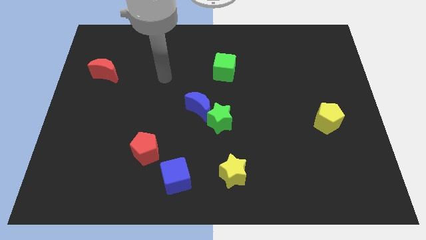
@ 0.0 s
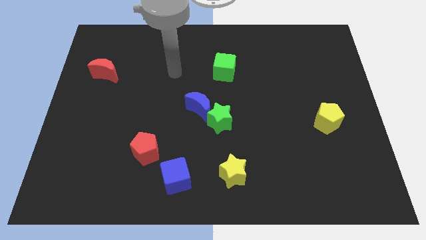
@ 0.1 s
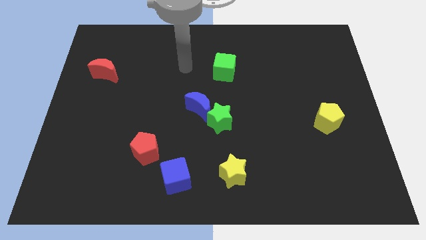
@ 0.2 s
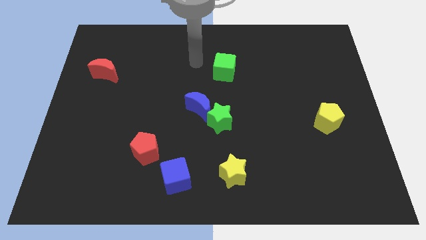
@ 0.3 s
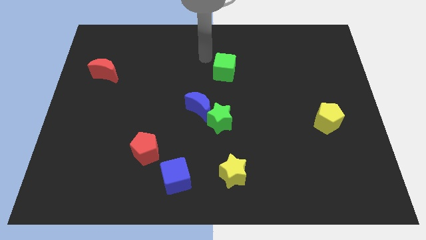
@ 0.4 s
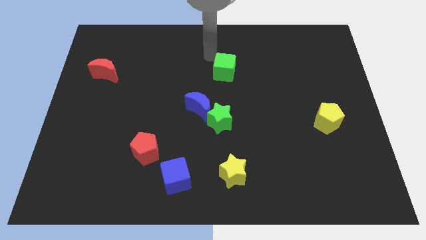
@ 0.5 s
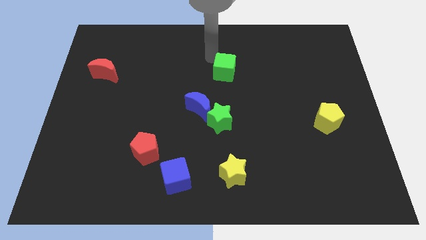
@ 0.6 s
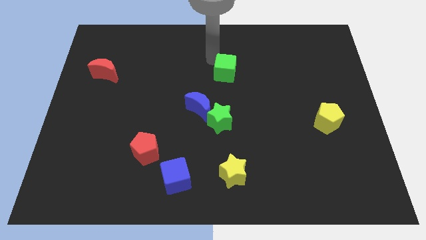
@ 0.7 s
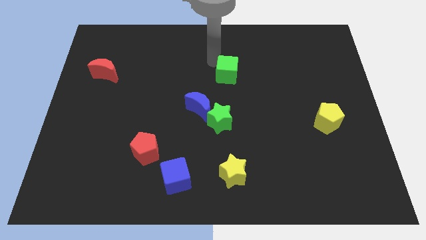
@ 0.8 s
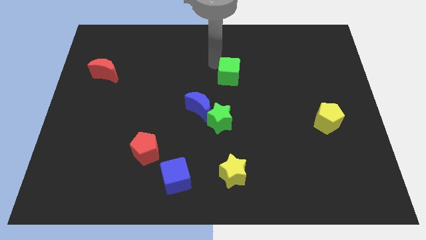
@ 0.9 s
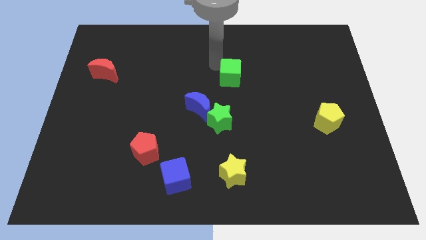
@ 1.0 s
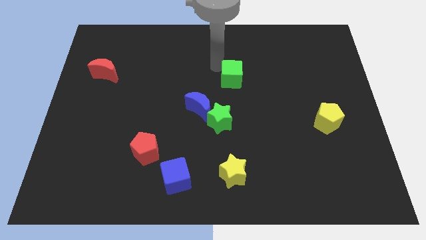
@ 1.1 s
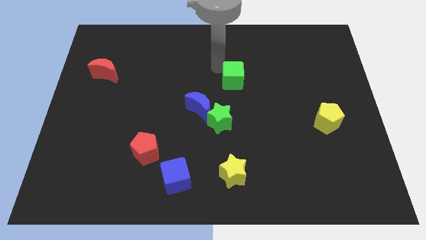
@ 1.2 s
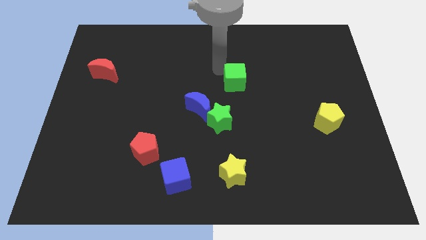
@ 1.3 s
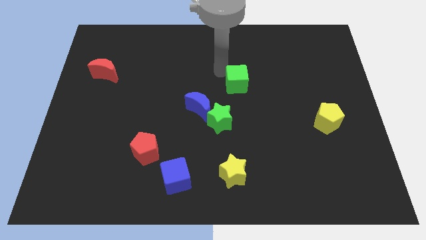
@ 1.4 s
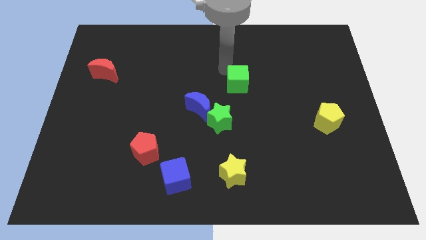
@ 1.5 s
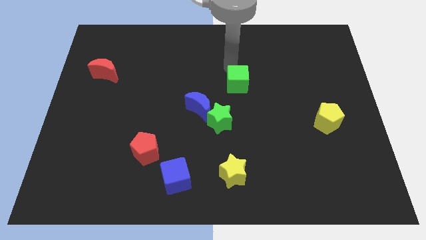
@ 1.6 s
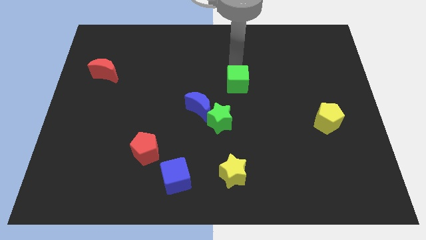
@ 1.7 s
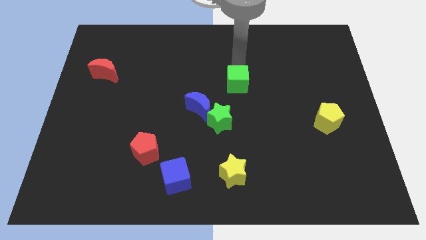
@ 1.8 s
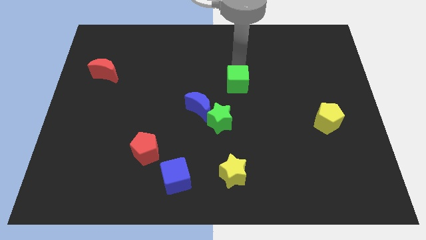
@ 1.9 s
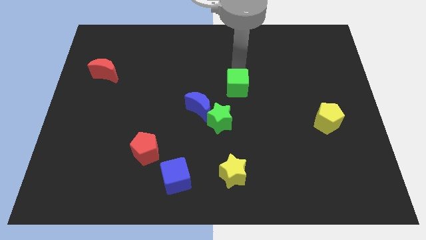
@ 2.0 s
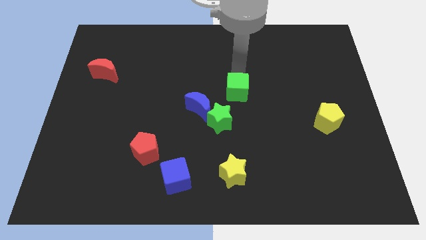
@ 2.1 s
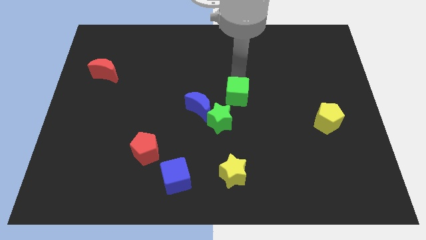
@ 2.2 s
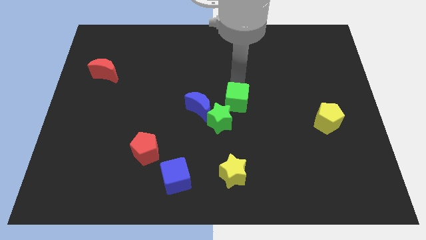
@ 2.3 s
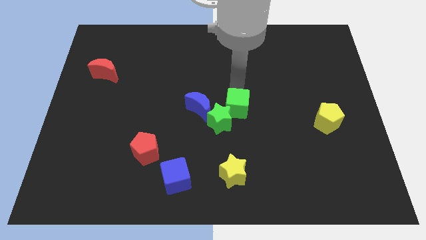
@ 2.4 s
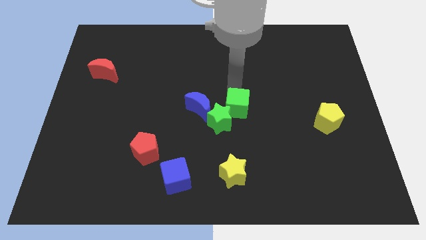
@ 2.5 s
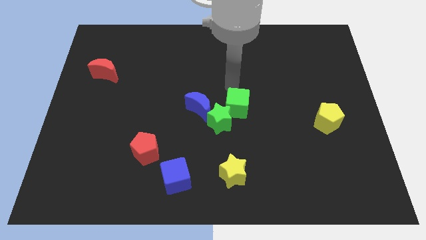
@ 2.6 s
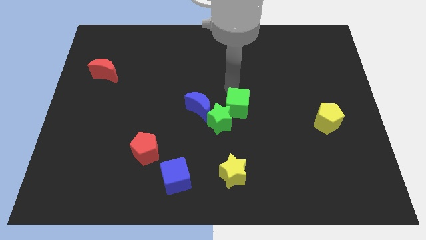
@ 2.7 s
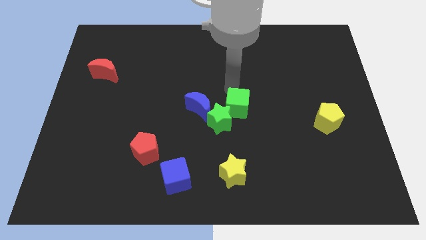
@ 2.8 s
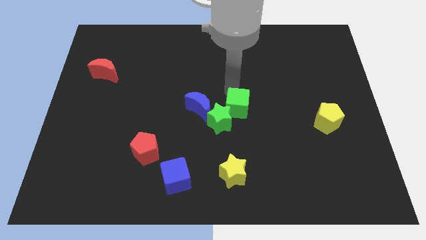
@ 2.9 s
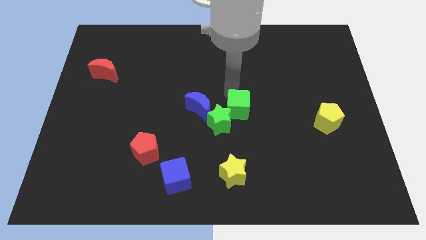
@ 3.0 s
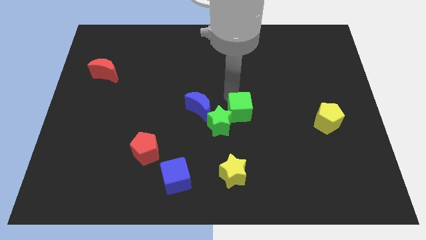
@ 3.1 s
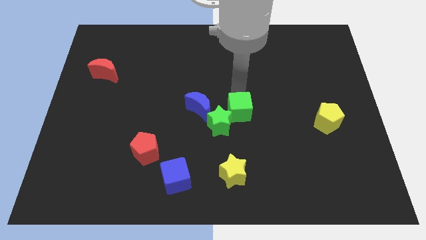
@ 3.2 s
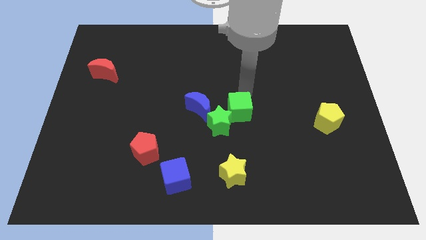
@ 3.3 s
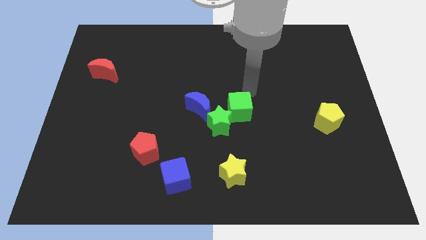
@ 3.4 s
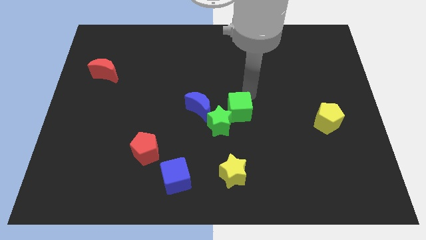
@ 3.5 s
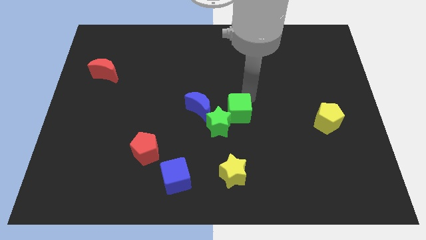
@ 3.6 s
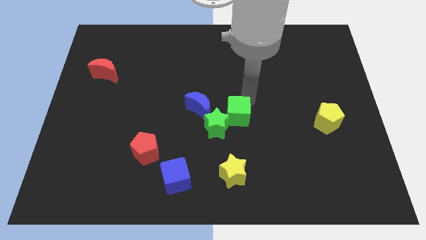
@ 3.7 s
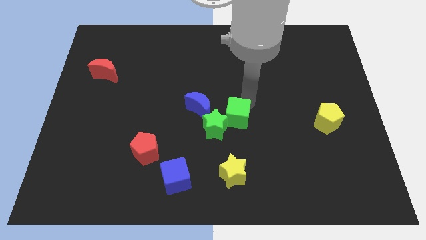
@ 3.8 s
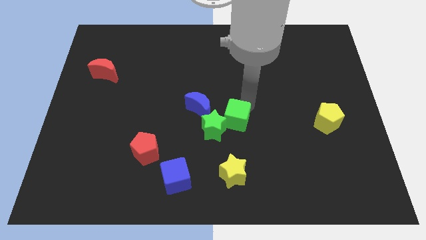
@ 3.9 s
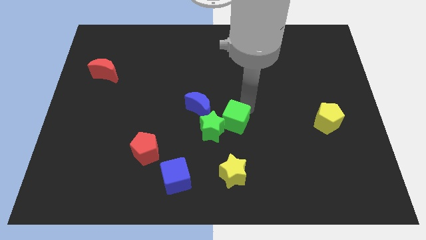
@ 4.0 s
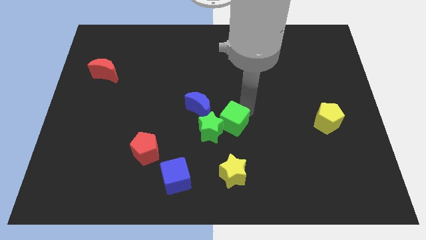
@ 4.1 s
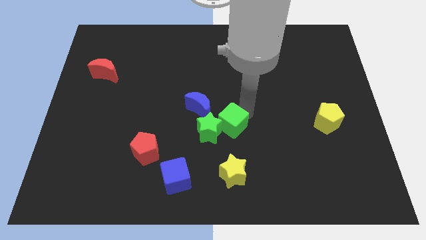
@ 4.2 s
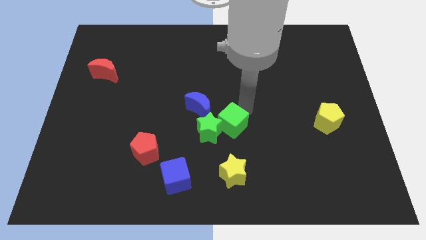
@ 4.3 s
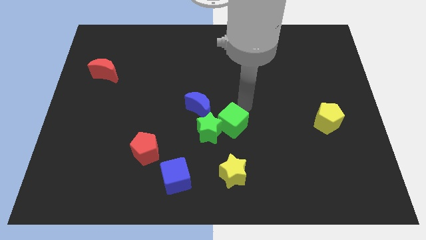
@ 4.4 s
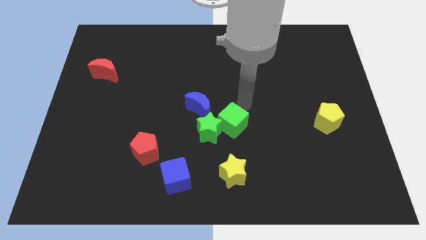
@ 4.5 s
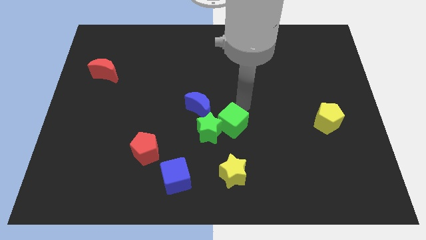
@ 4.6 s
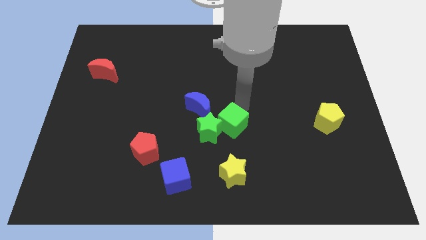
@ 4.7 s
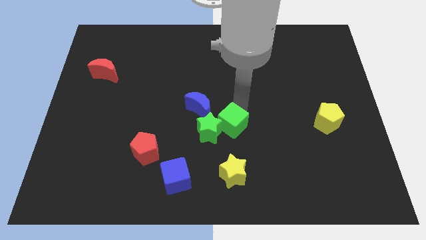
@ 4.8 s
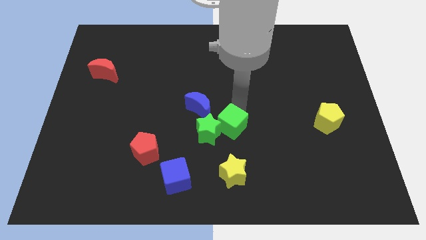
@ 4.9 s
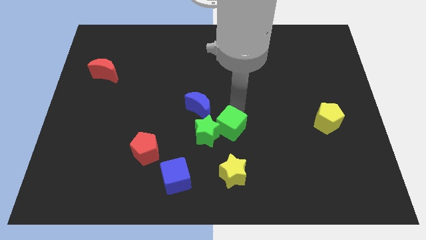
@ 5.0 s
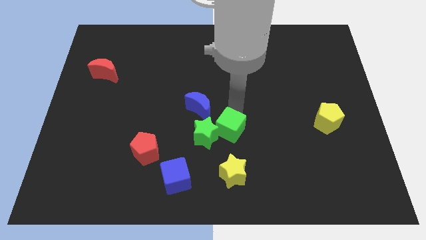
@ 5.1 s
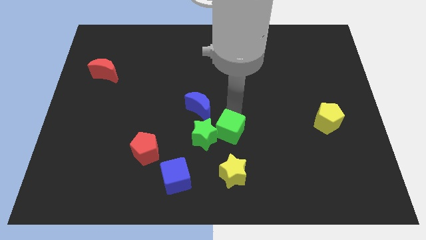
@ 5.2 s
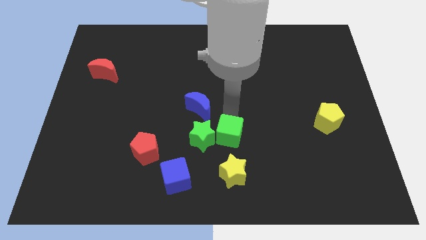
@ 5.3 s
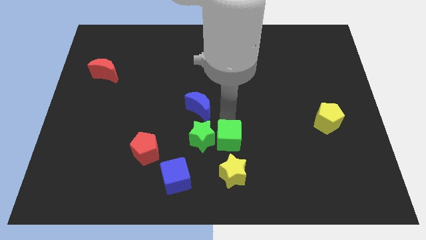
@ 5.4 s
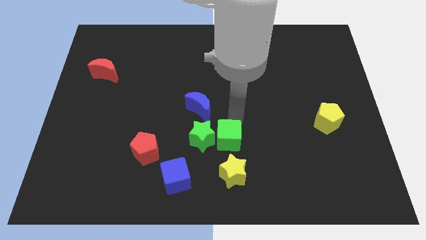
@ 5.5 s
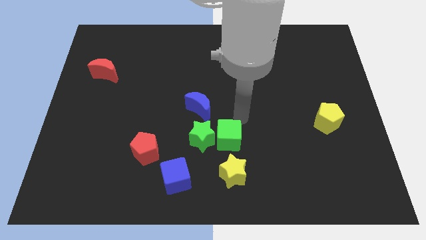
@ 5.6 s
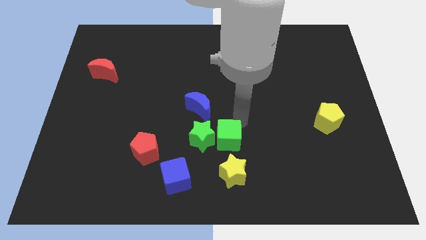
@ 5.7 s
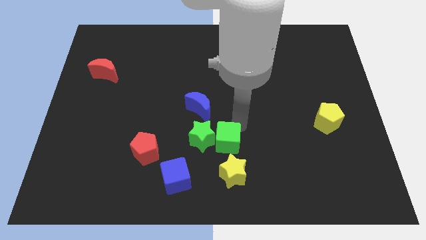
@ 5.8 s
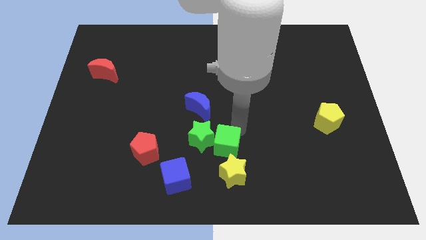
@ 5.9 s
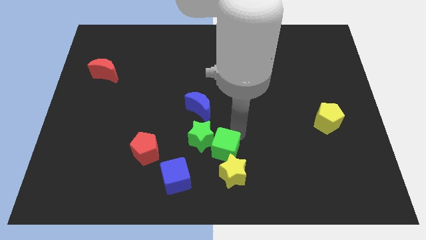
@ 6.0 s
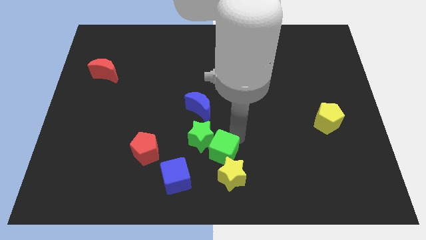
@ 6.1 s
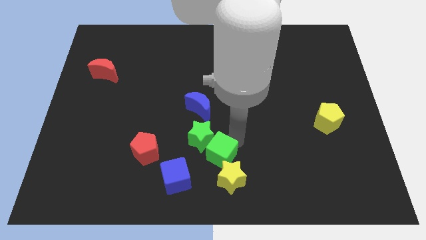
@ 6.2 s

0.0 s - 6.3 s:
slide the green cube to the bottom of the green star
